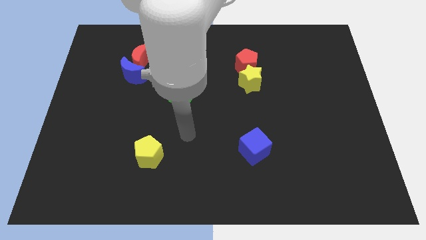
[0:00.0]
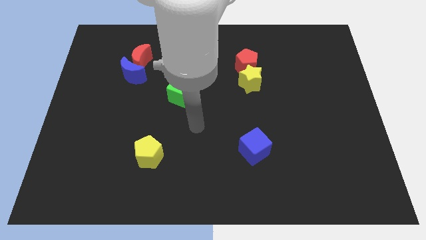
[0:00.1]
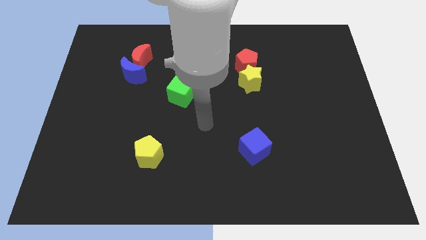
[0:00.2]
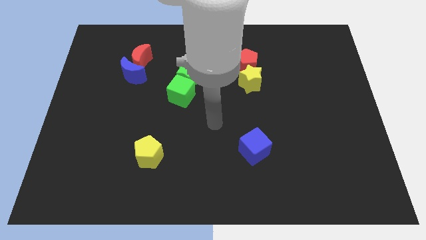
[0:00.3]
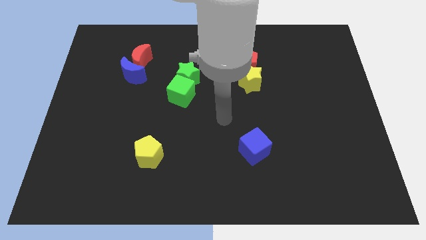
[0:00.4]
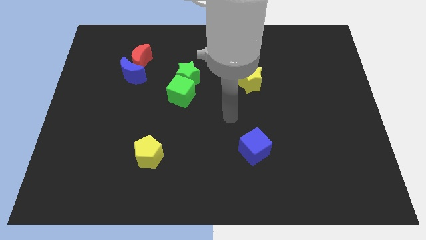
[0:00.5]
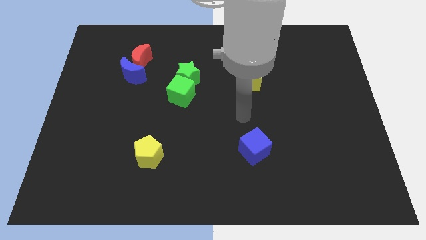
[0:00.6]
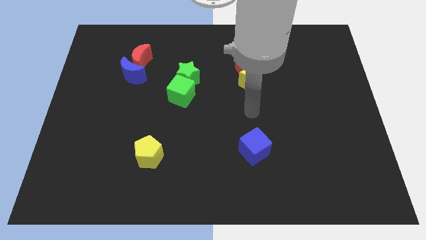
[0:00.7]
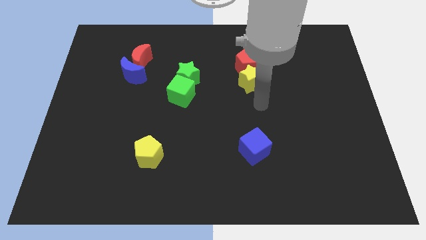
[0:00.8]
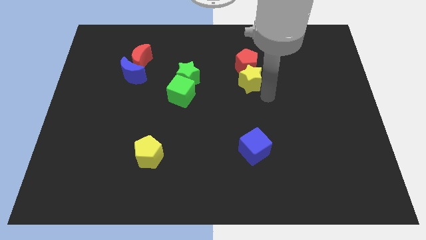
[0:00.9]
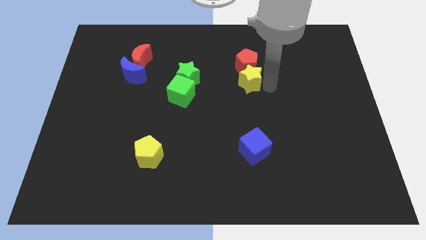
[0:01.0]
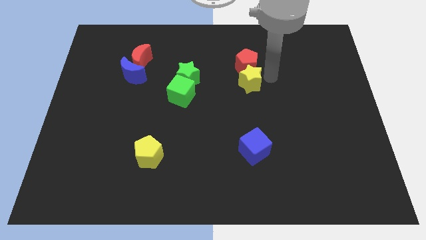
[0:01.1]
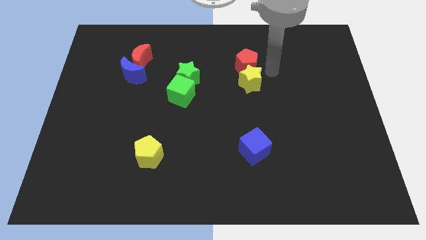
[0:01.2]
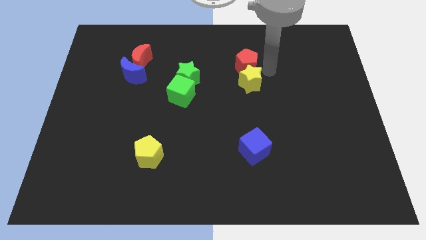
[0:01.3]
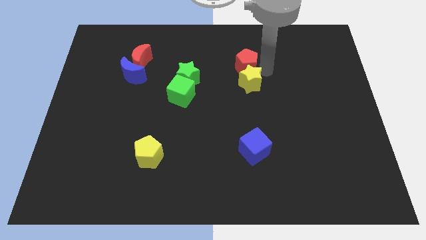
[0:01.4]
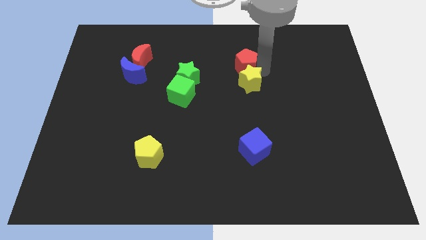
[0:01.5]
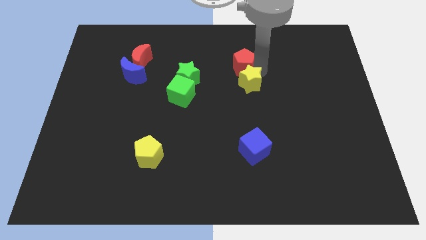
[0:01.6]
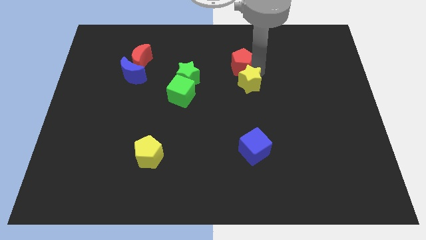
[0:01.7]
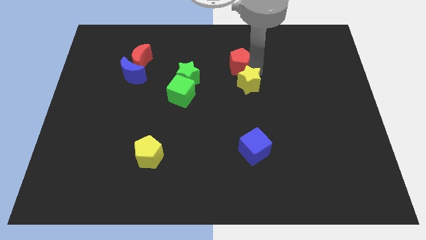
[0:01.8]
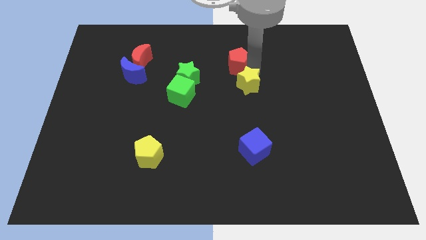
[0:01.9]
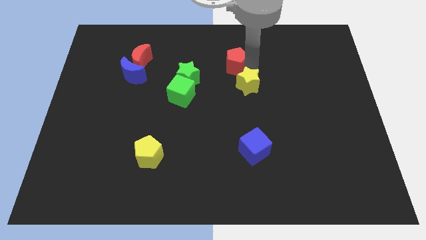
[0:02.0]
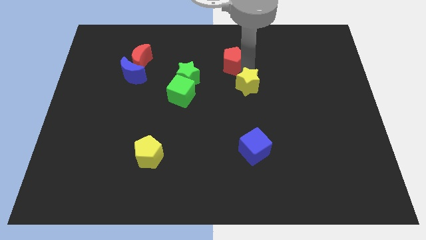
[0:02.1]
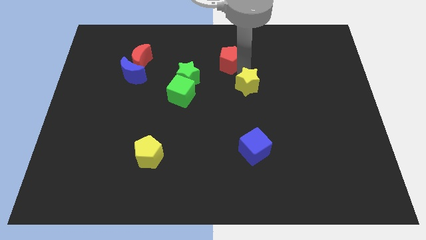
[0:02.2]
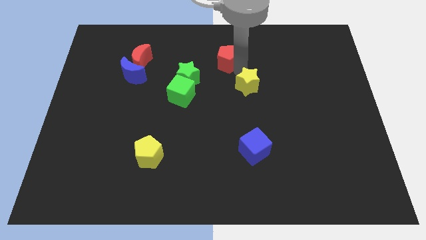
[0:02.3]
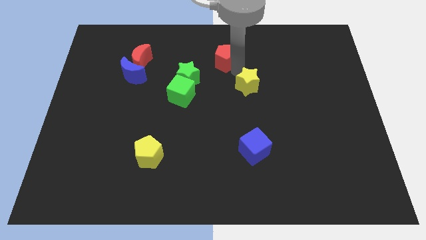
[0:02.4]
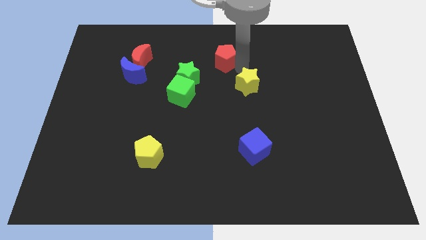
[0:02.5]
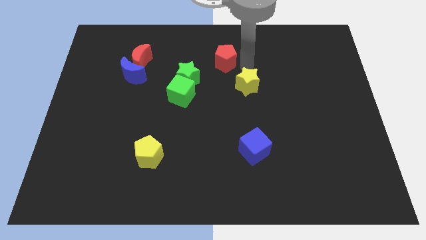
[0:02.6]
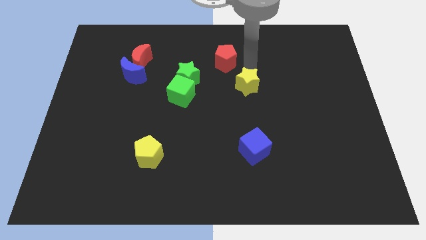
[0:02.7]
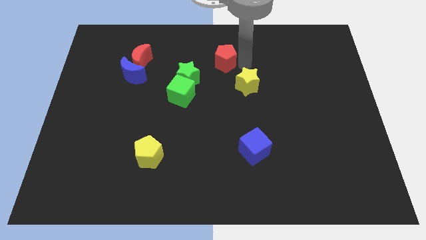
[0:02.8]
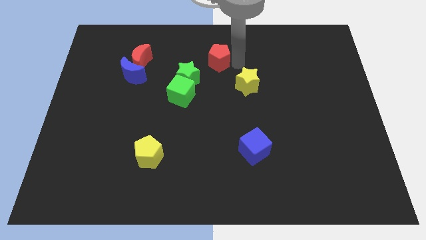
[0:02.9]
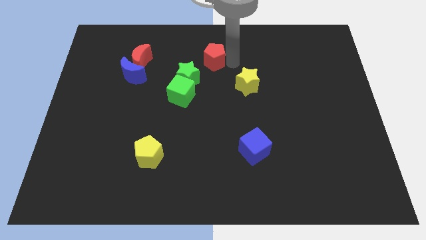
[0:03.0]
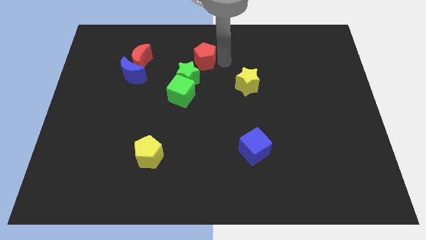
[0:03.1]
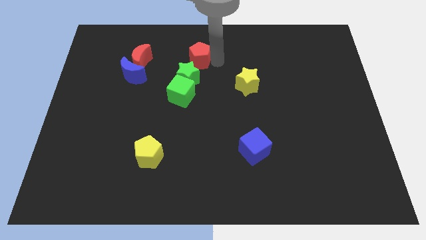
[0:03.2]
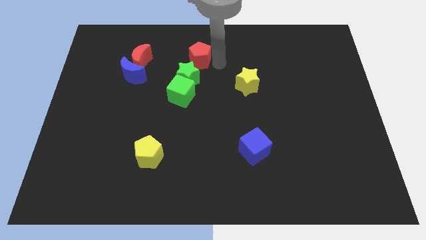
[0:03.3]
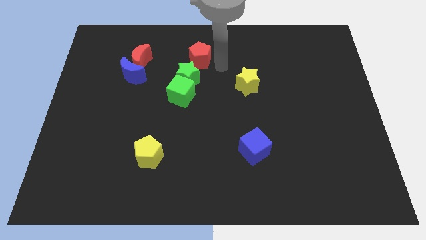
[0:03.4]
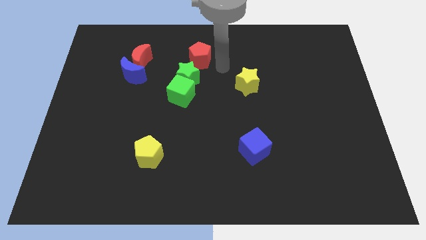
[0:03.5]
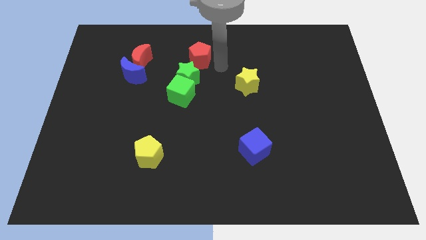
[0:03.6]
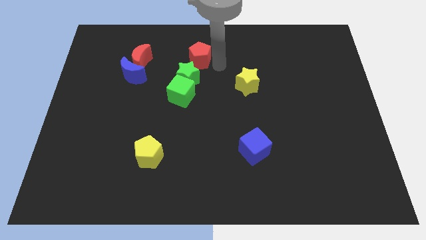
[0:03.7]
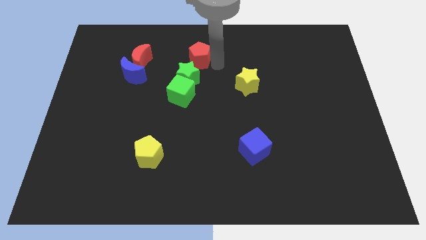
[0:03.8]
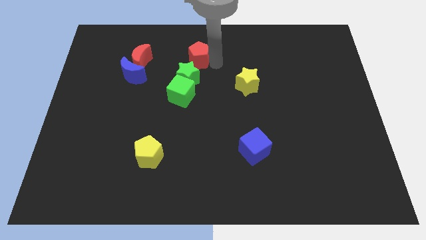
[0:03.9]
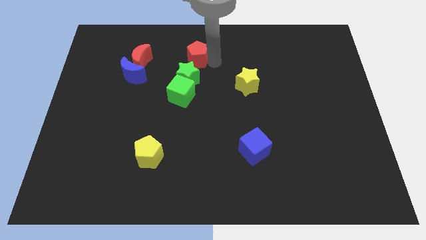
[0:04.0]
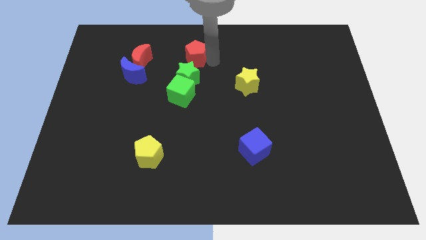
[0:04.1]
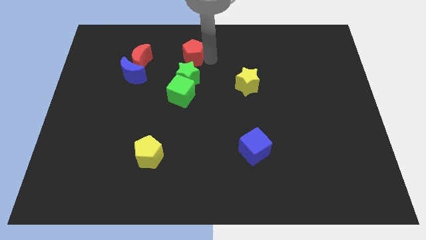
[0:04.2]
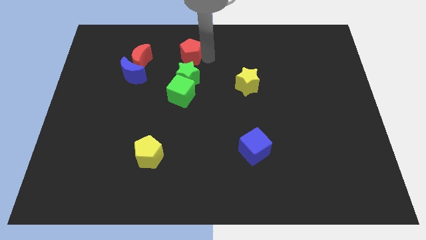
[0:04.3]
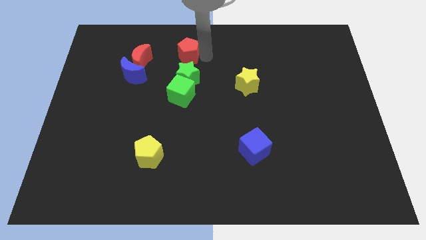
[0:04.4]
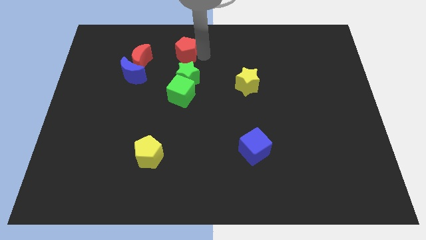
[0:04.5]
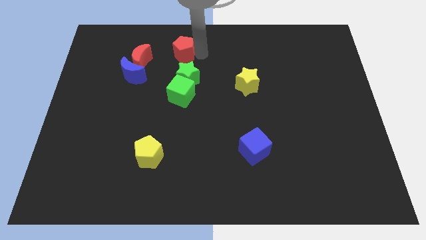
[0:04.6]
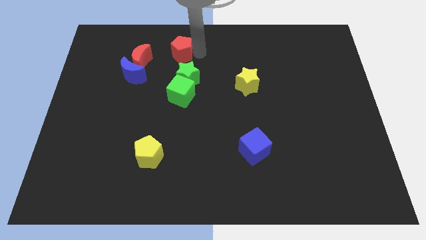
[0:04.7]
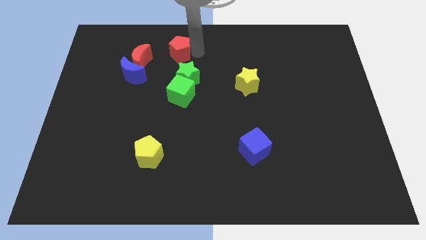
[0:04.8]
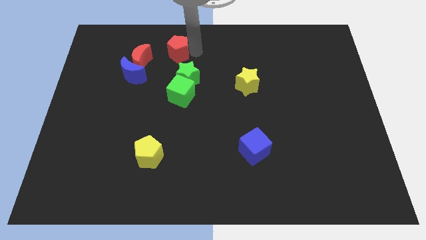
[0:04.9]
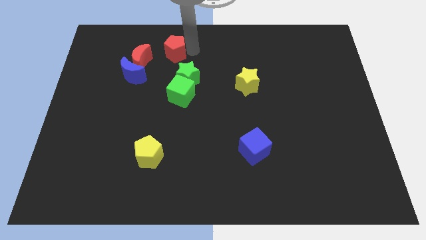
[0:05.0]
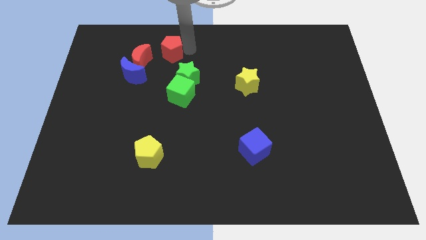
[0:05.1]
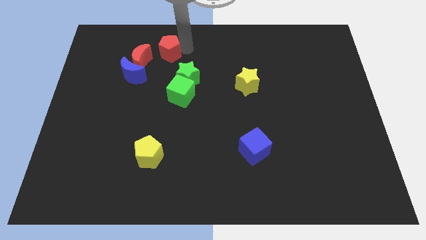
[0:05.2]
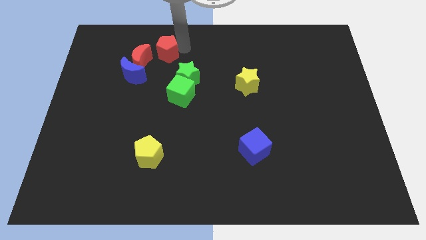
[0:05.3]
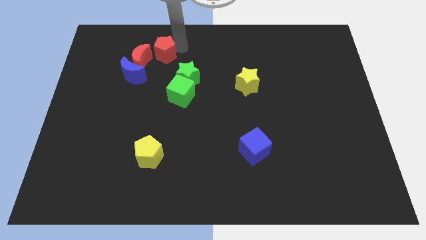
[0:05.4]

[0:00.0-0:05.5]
slide the red pentagon left

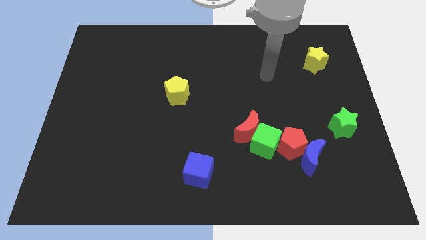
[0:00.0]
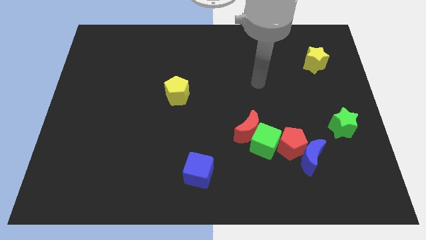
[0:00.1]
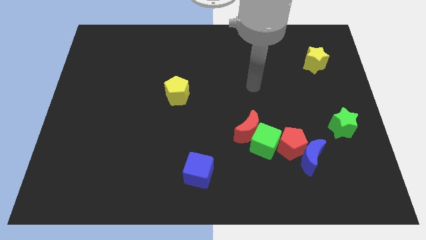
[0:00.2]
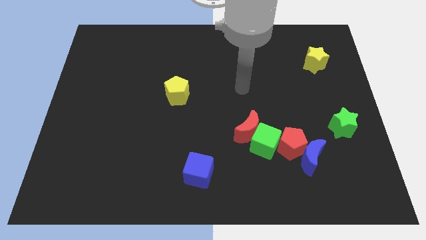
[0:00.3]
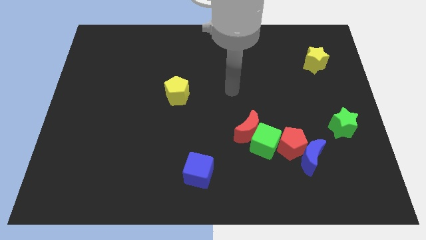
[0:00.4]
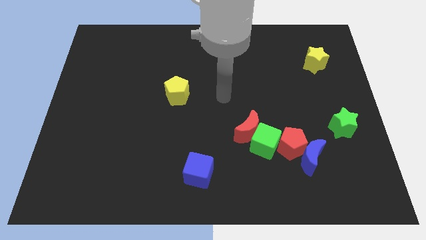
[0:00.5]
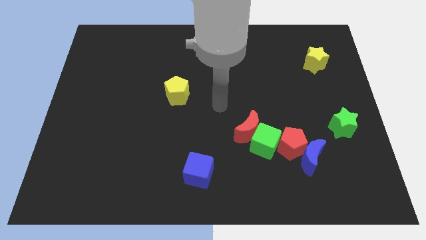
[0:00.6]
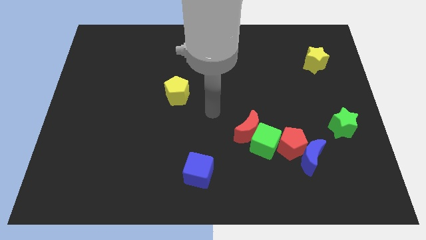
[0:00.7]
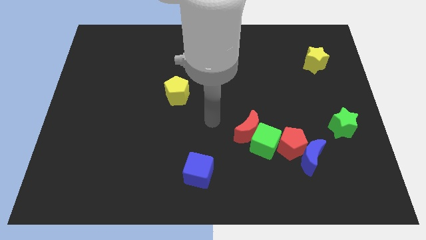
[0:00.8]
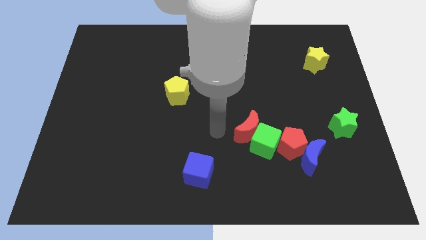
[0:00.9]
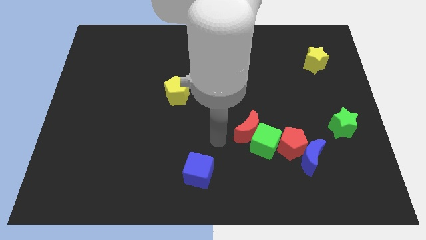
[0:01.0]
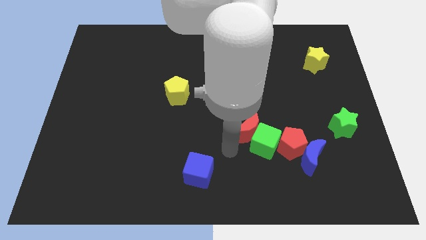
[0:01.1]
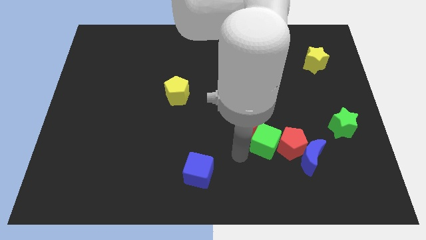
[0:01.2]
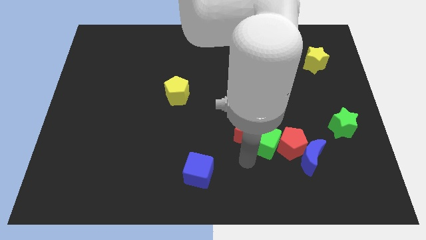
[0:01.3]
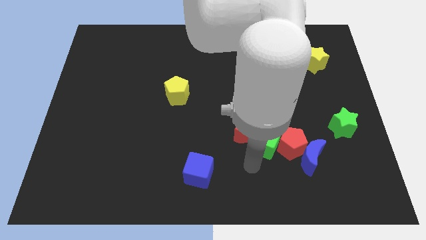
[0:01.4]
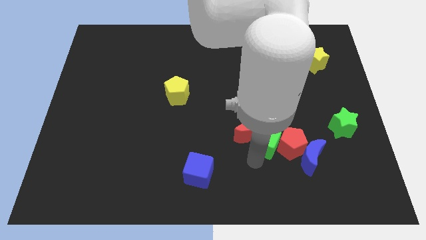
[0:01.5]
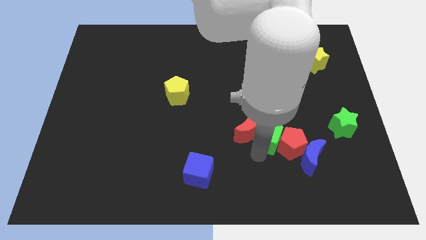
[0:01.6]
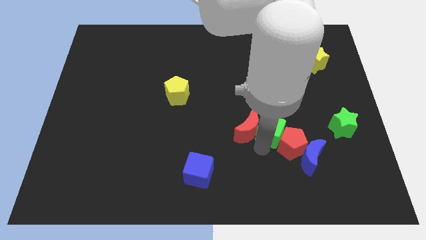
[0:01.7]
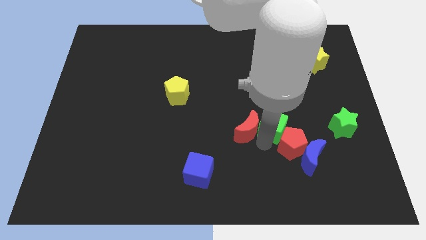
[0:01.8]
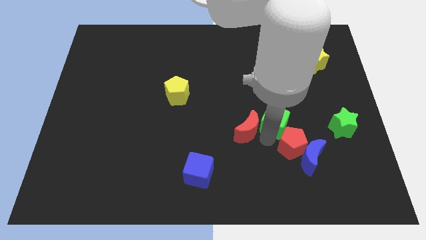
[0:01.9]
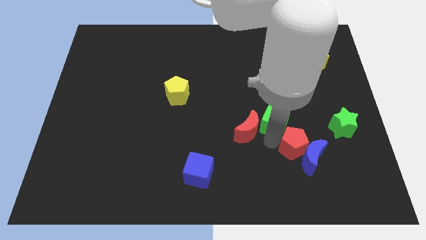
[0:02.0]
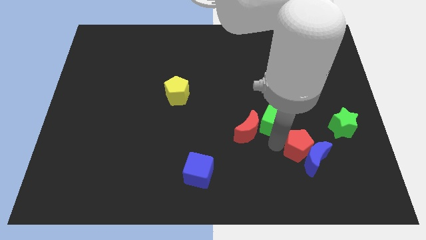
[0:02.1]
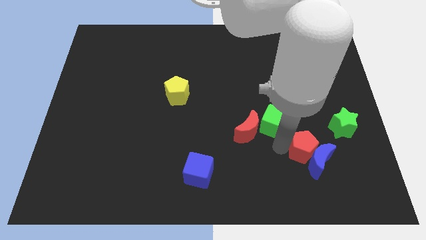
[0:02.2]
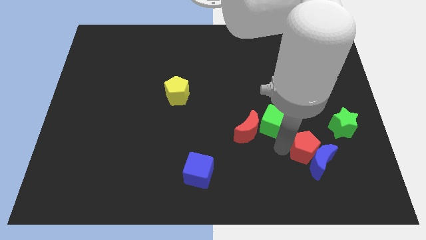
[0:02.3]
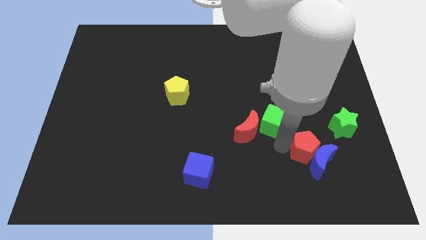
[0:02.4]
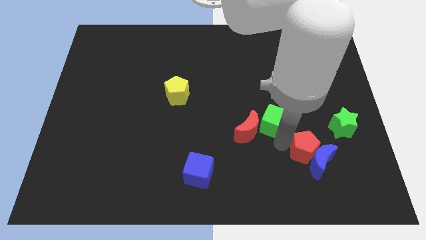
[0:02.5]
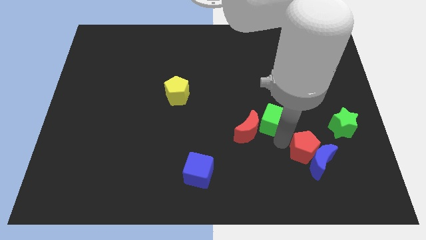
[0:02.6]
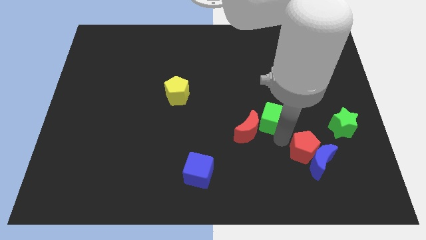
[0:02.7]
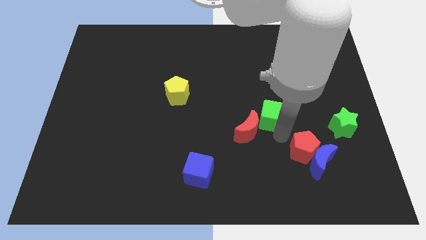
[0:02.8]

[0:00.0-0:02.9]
push the green cube a little bit up
